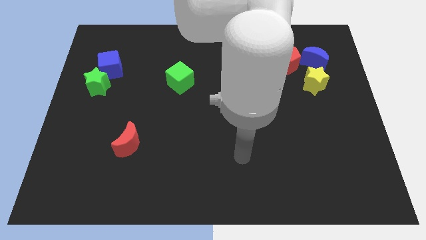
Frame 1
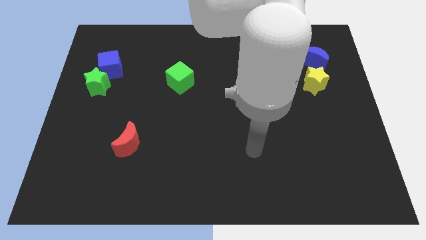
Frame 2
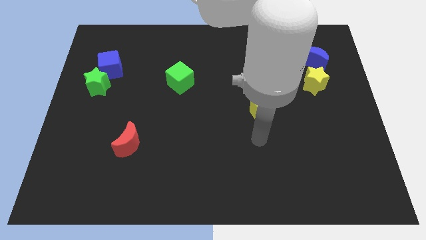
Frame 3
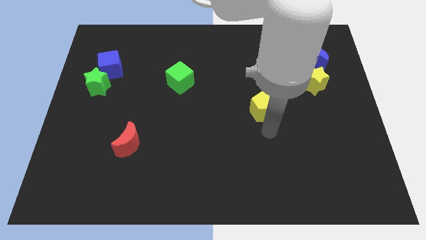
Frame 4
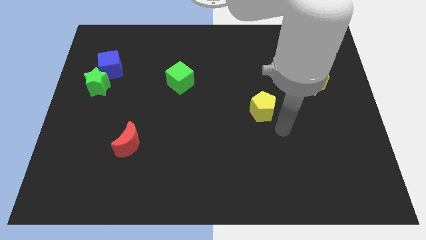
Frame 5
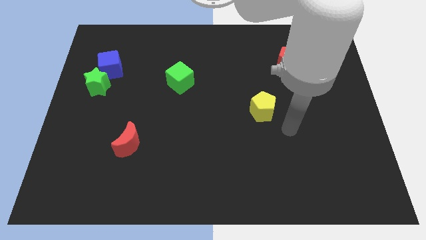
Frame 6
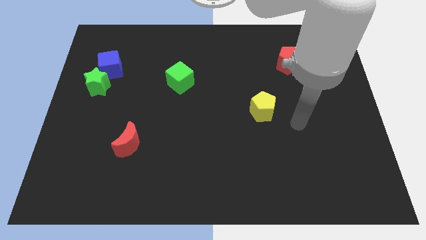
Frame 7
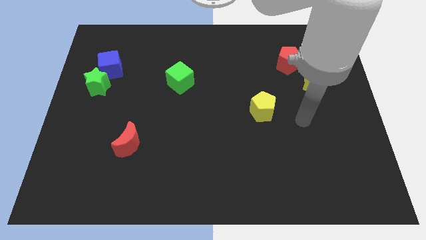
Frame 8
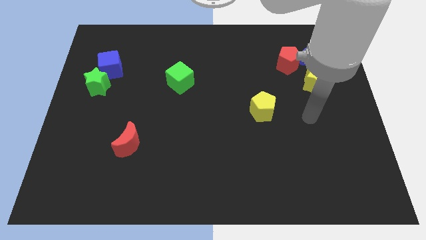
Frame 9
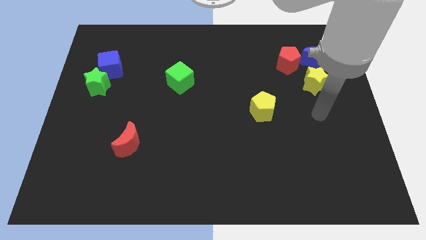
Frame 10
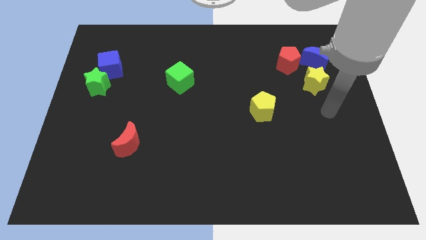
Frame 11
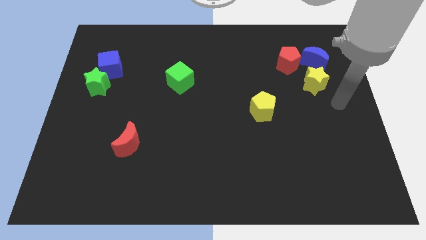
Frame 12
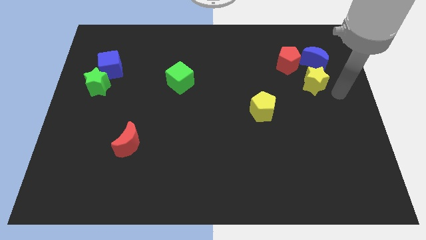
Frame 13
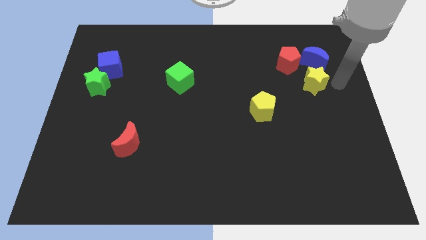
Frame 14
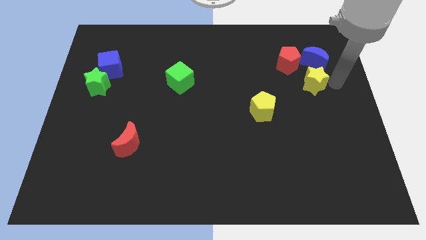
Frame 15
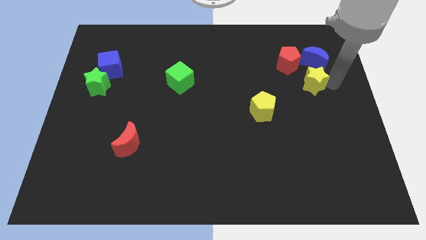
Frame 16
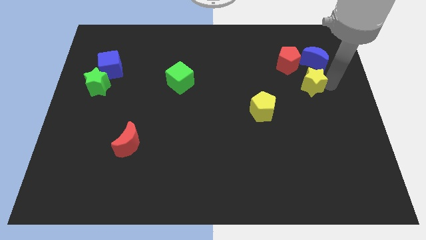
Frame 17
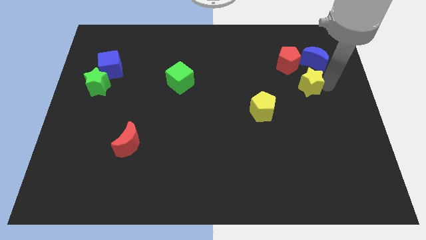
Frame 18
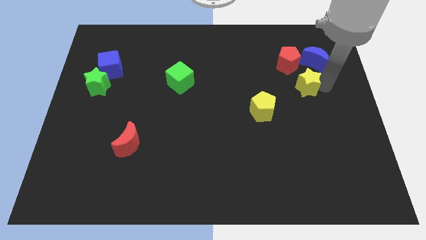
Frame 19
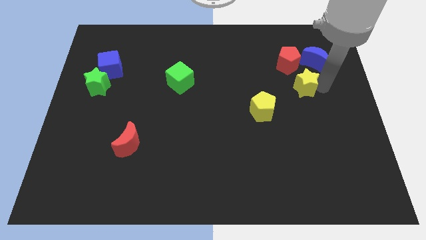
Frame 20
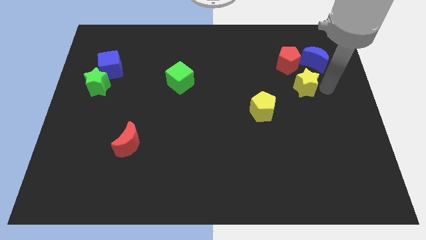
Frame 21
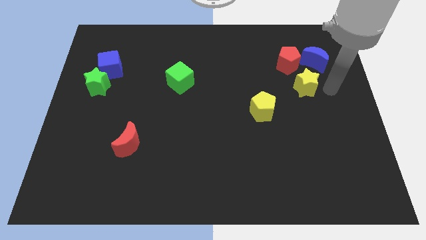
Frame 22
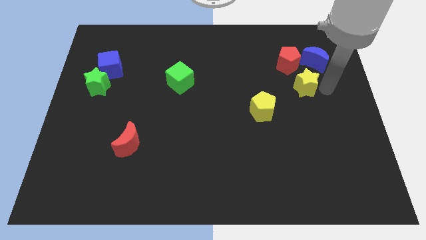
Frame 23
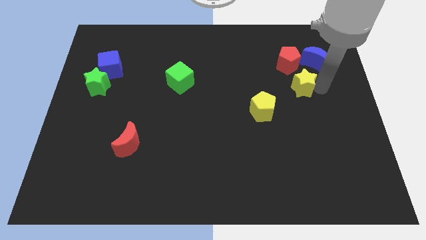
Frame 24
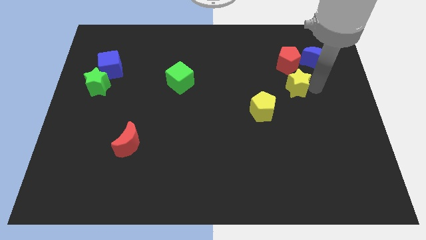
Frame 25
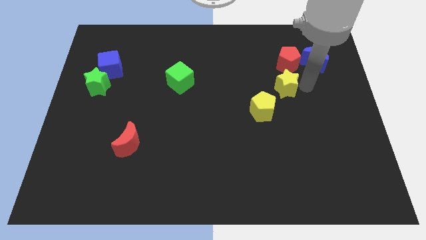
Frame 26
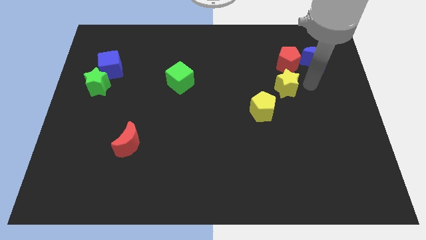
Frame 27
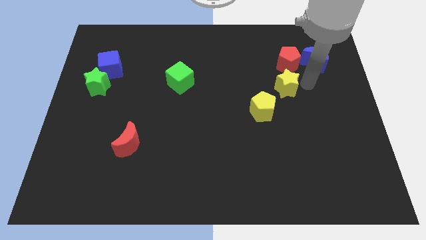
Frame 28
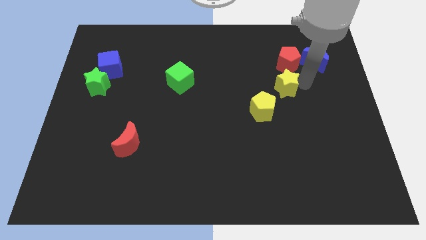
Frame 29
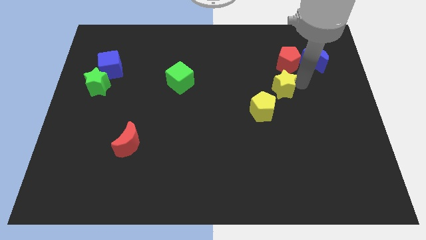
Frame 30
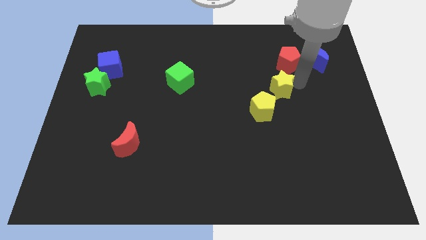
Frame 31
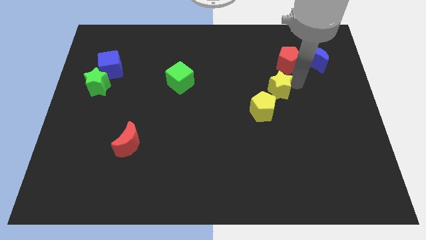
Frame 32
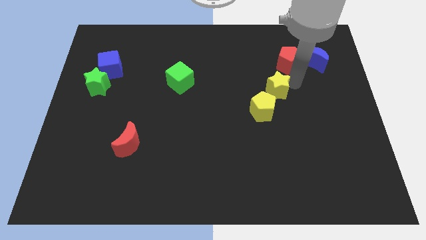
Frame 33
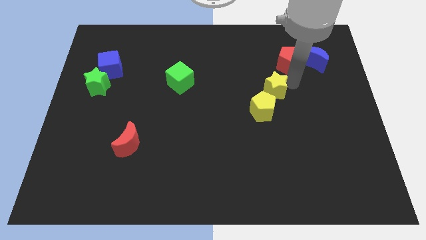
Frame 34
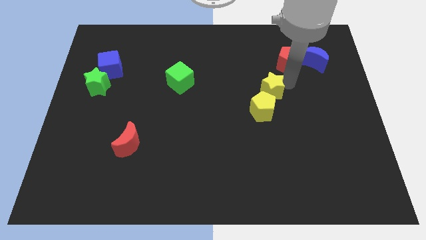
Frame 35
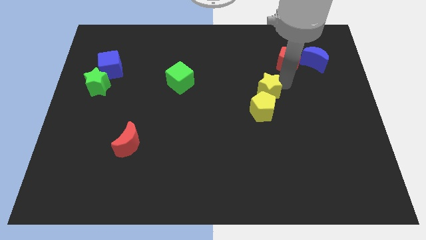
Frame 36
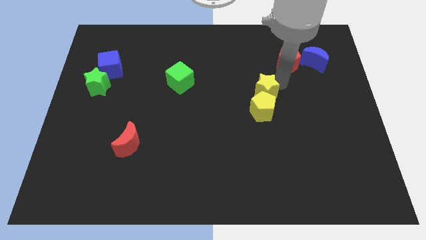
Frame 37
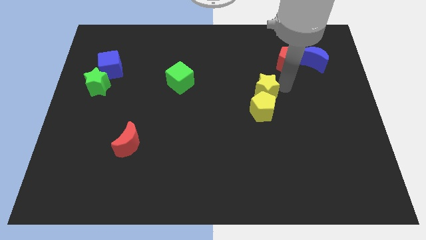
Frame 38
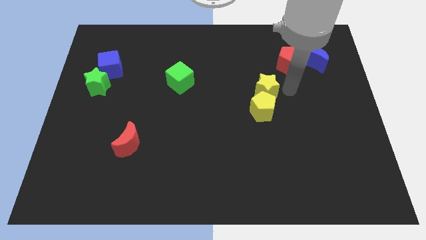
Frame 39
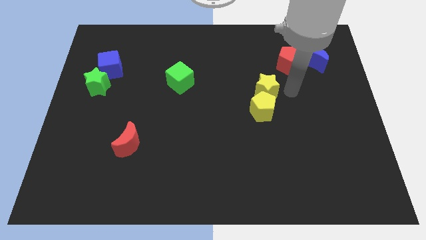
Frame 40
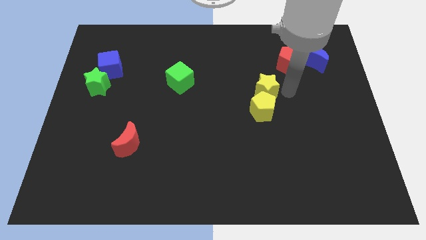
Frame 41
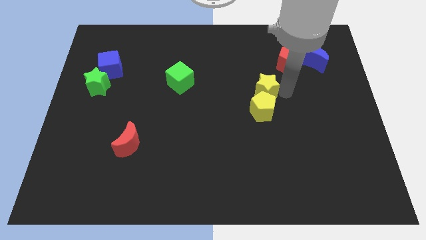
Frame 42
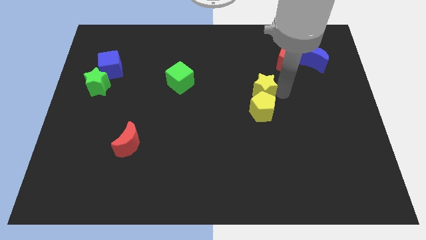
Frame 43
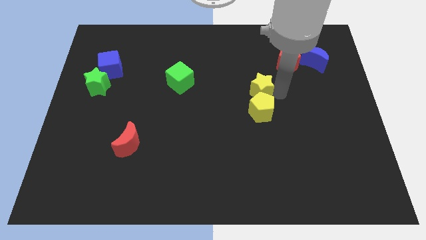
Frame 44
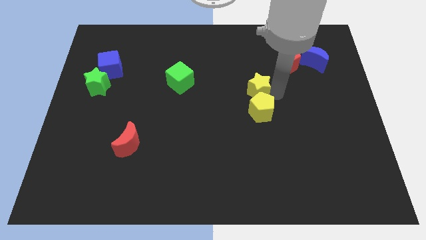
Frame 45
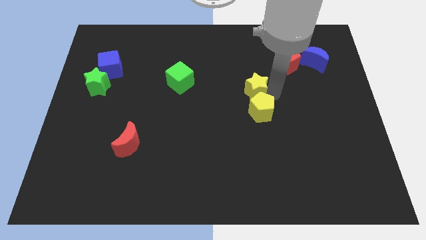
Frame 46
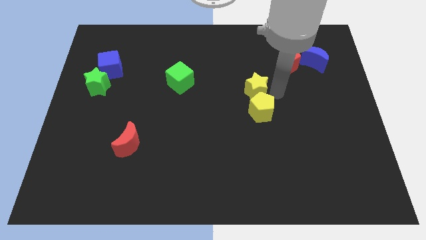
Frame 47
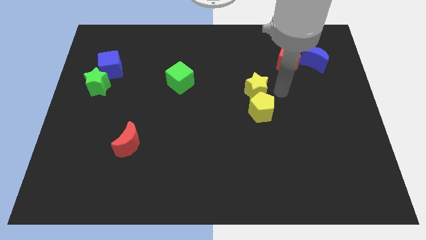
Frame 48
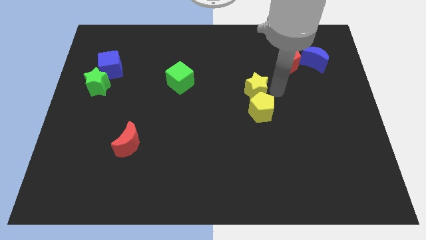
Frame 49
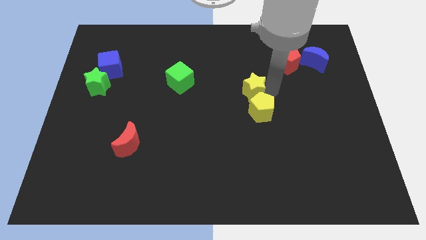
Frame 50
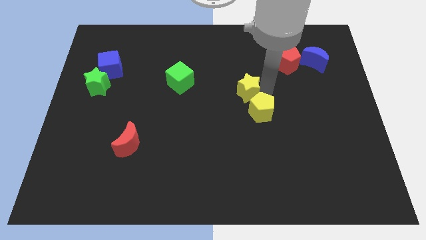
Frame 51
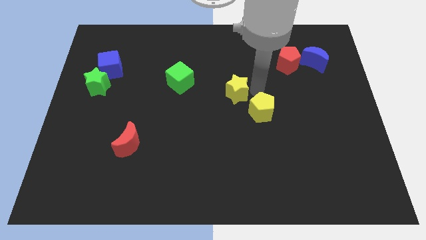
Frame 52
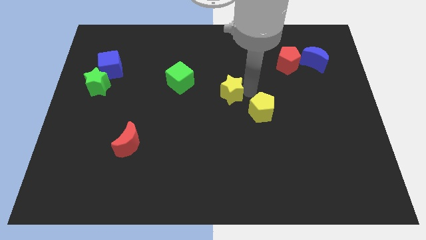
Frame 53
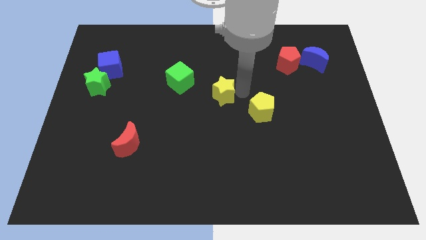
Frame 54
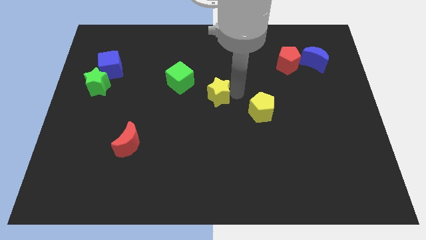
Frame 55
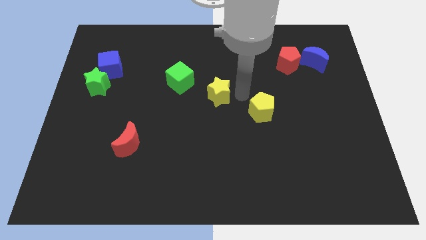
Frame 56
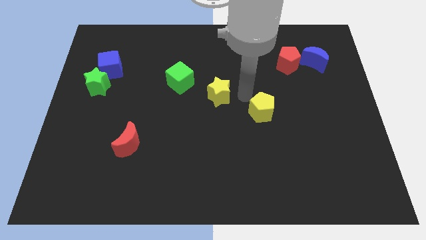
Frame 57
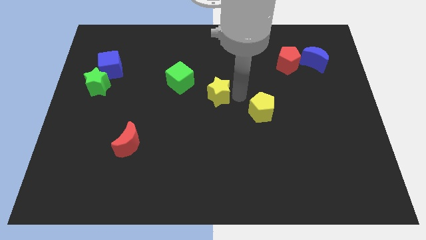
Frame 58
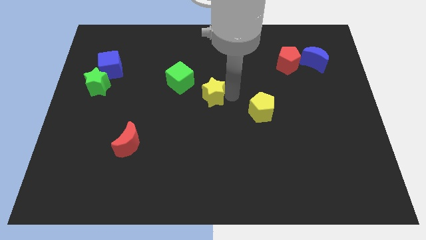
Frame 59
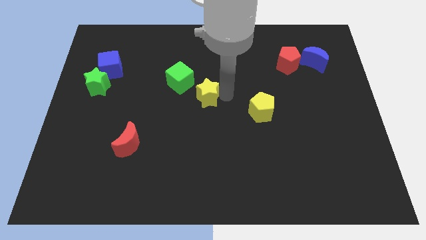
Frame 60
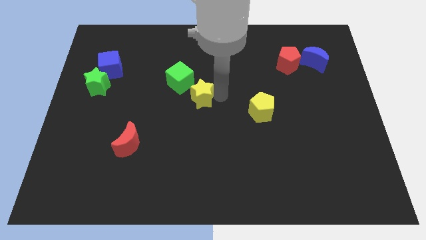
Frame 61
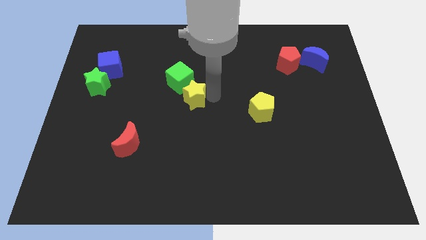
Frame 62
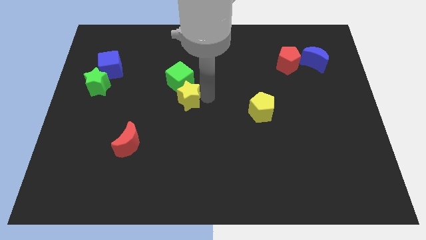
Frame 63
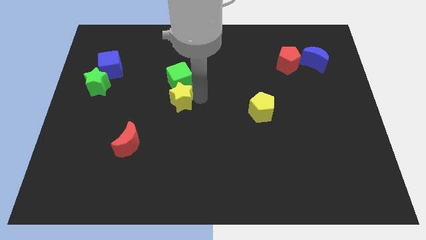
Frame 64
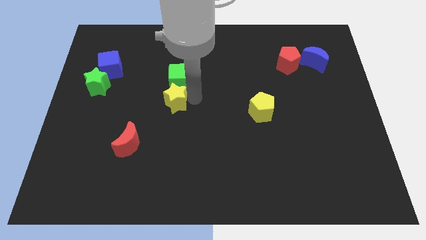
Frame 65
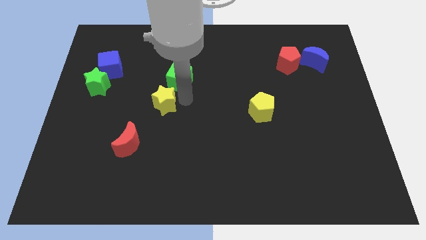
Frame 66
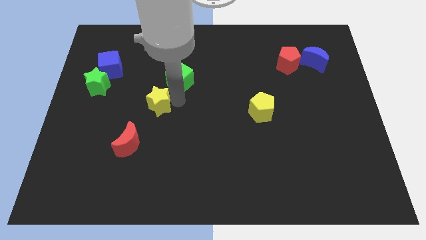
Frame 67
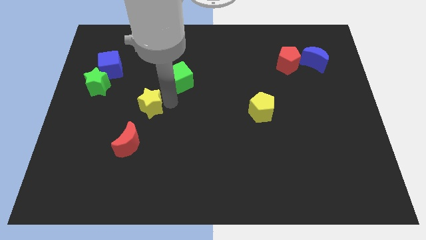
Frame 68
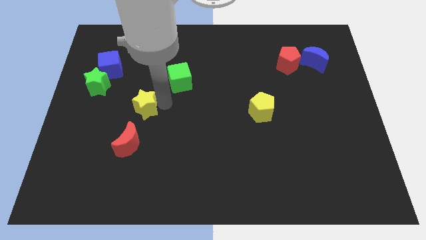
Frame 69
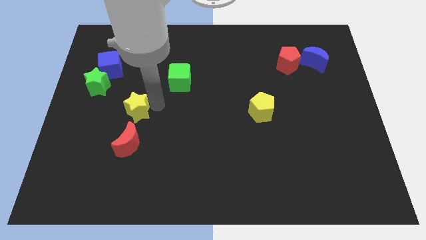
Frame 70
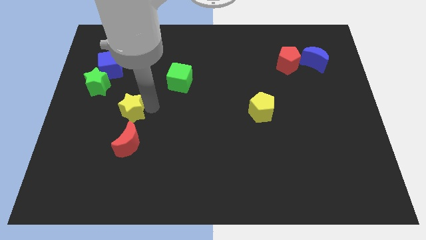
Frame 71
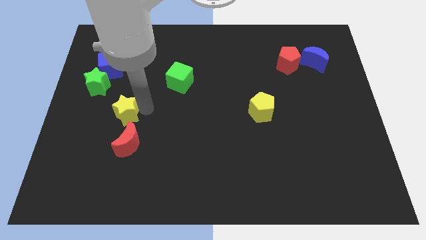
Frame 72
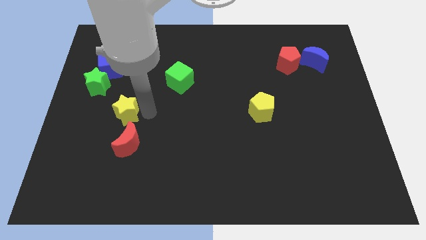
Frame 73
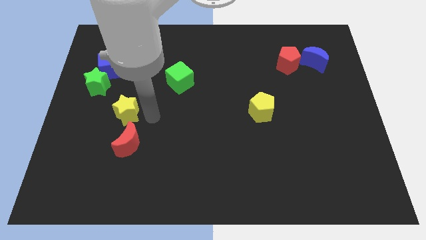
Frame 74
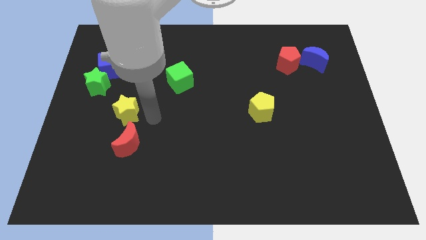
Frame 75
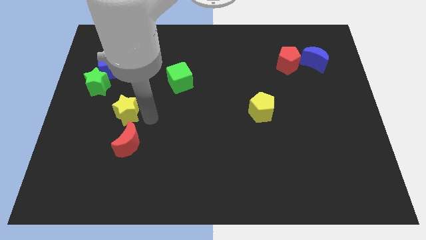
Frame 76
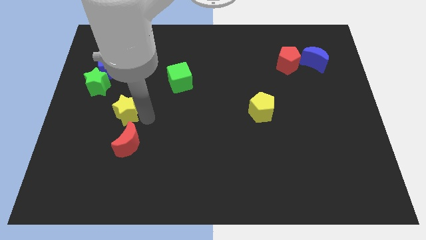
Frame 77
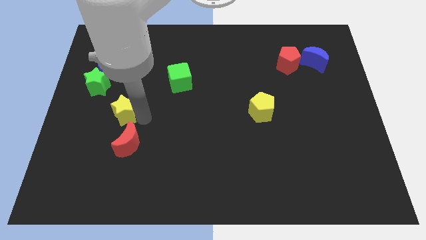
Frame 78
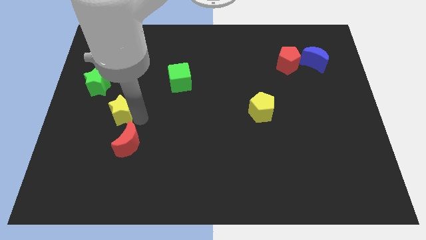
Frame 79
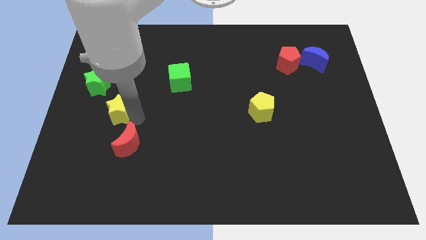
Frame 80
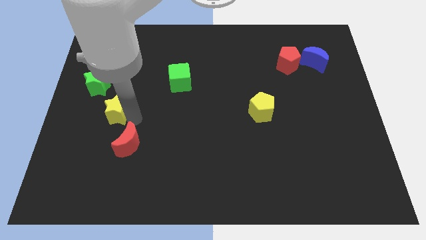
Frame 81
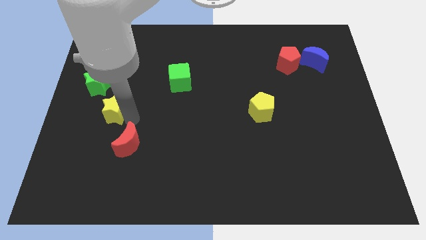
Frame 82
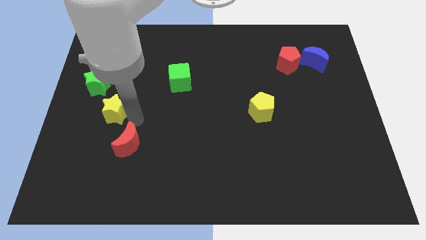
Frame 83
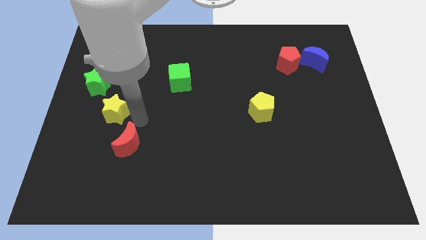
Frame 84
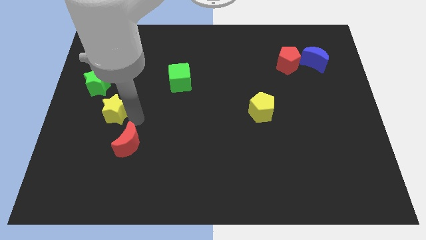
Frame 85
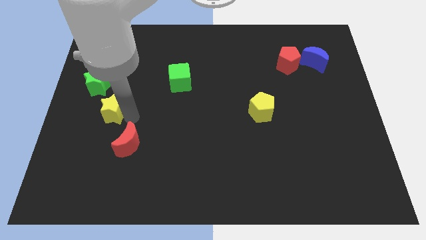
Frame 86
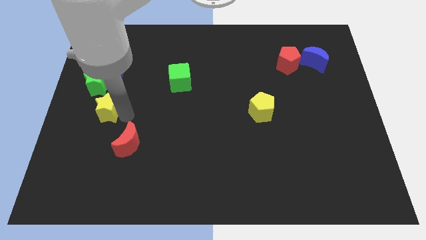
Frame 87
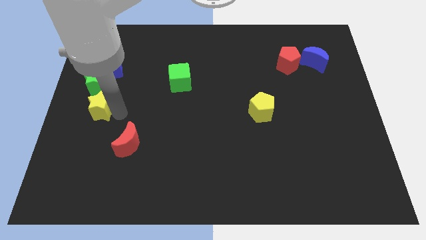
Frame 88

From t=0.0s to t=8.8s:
move the yellow star to the center left
